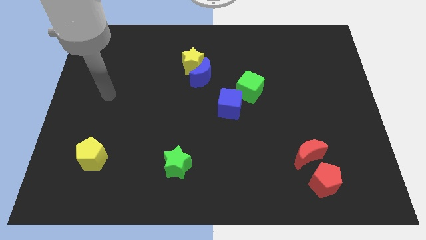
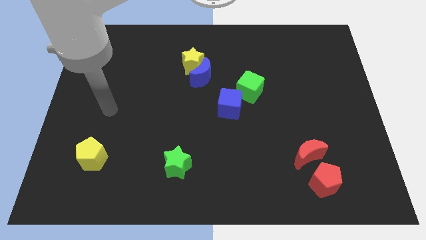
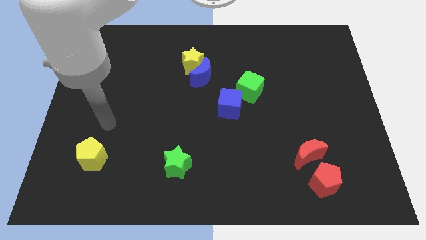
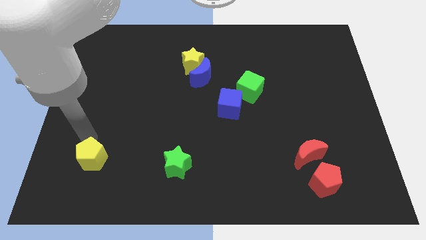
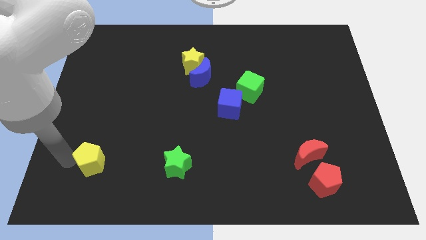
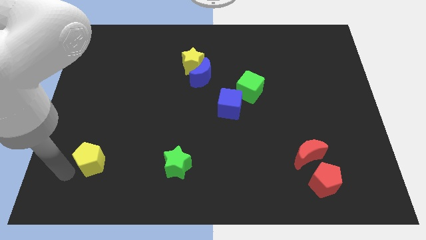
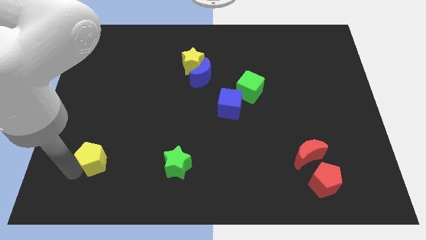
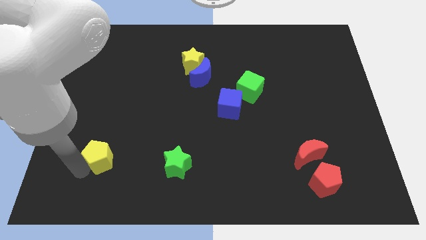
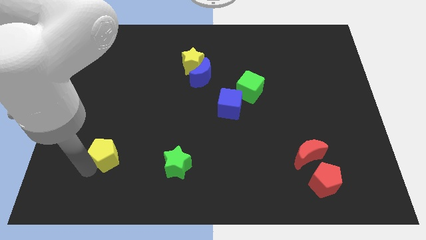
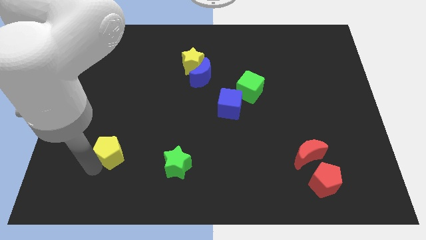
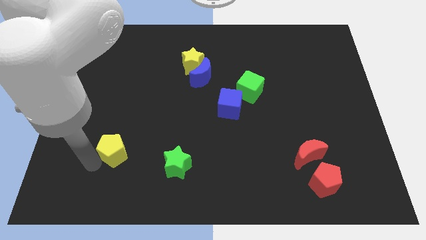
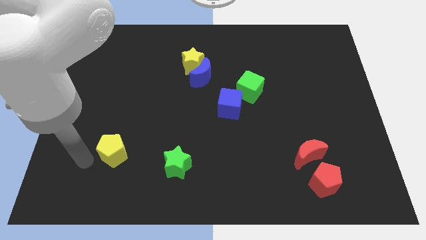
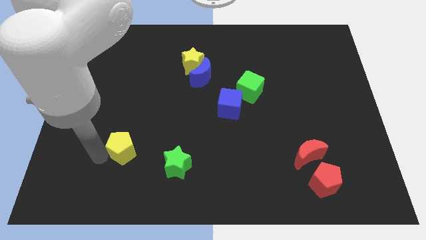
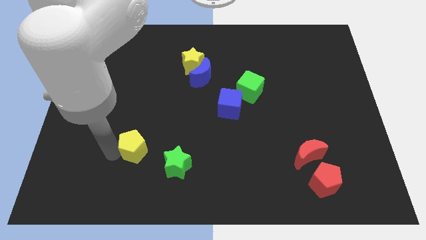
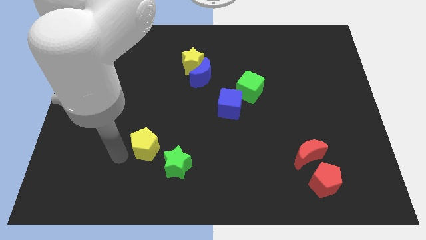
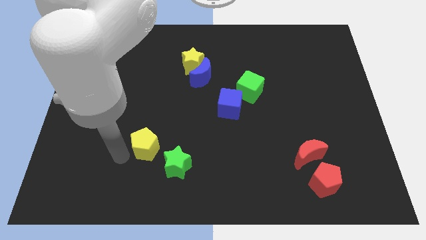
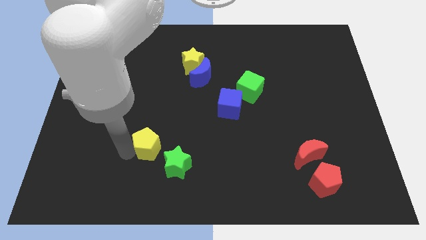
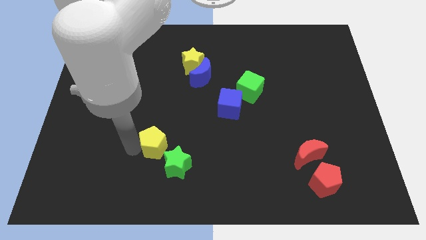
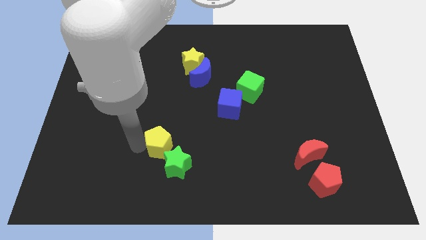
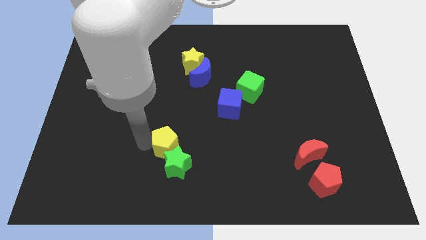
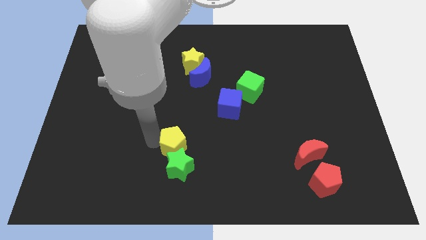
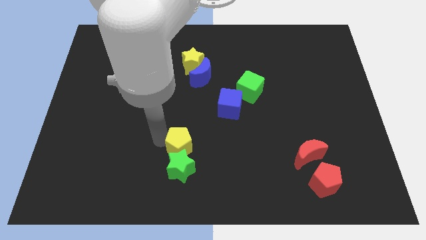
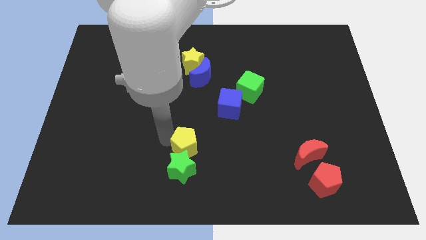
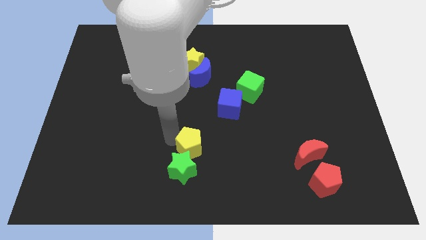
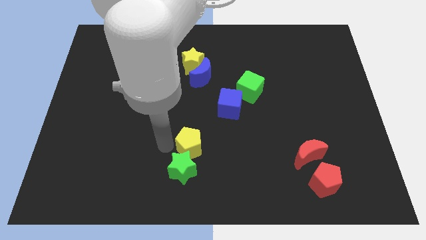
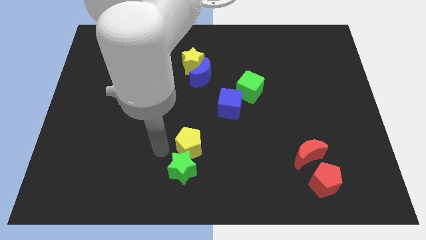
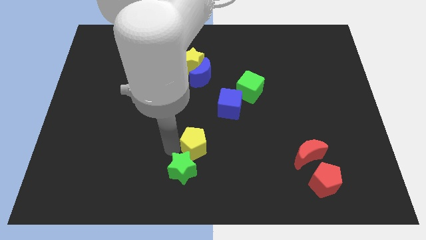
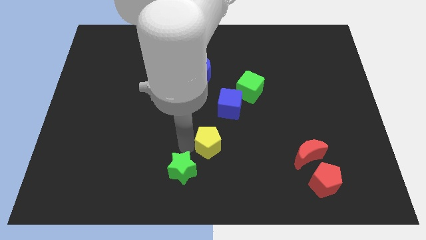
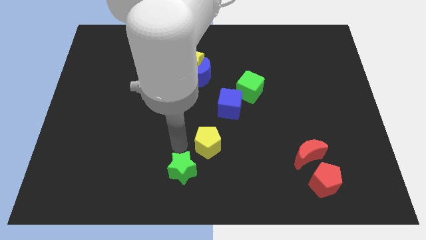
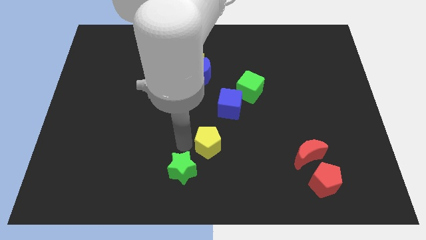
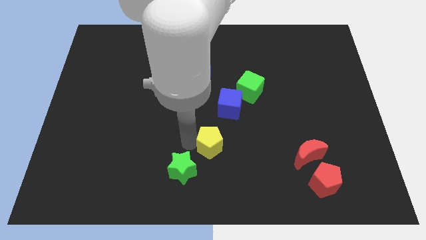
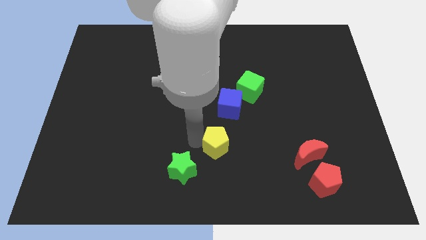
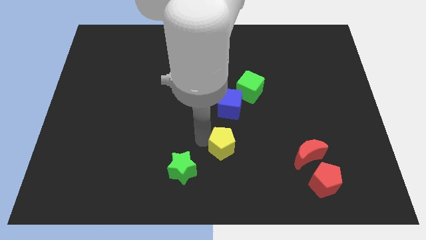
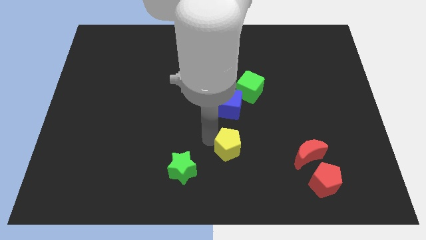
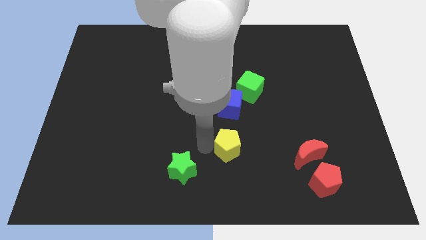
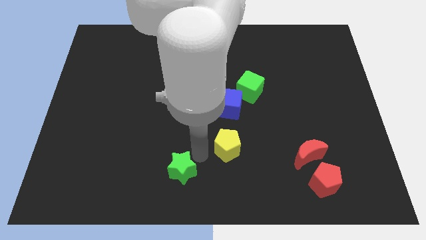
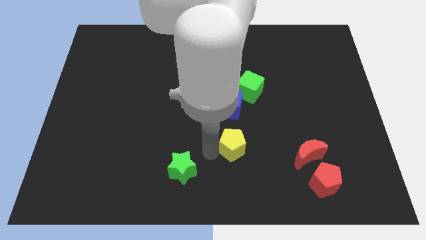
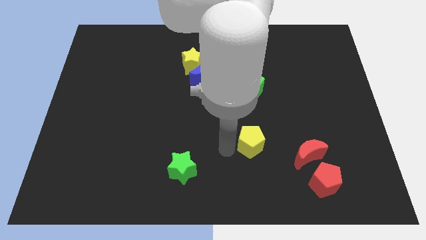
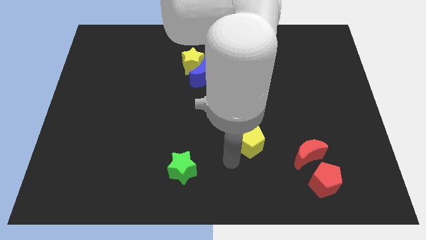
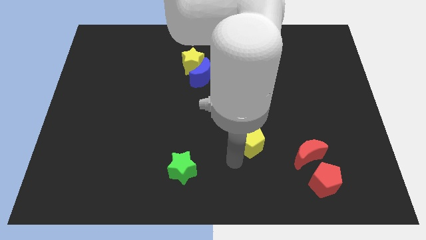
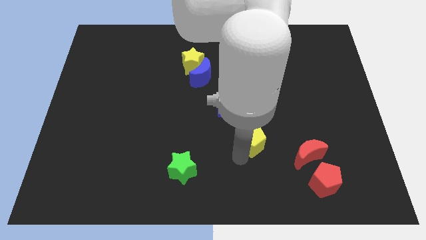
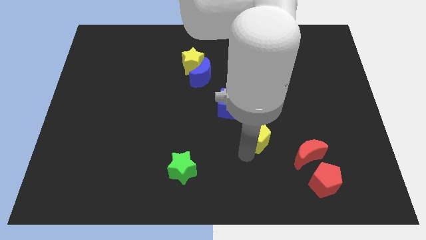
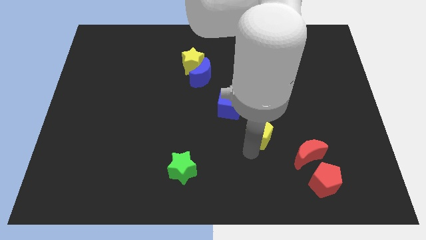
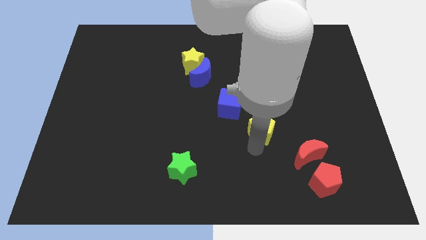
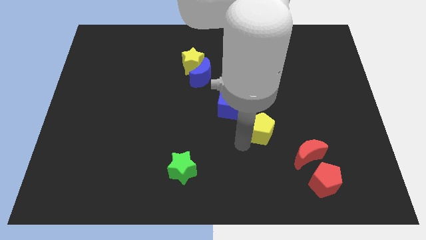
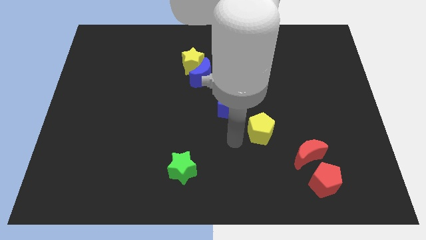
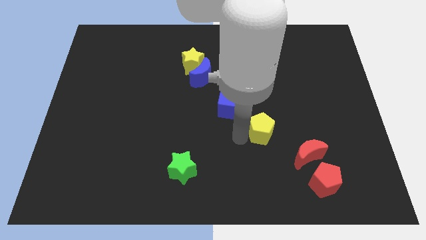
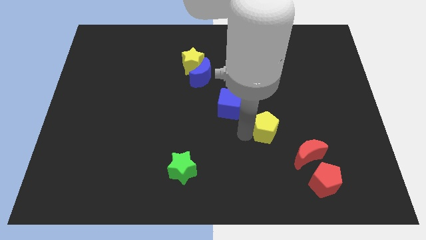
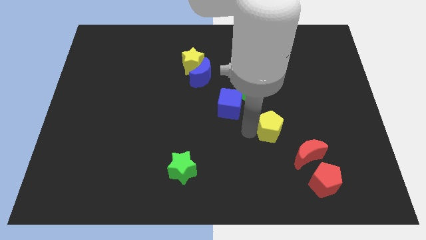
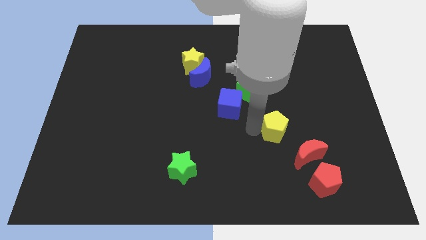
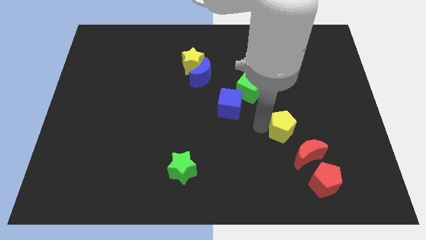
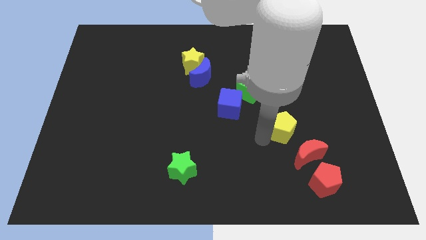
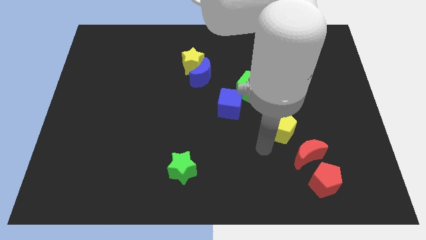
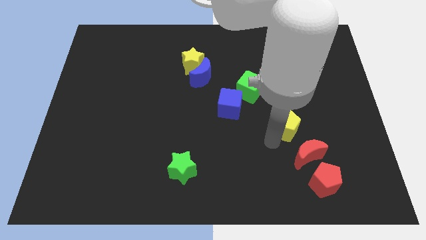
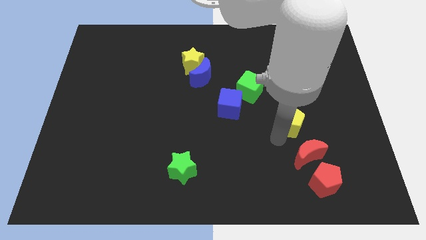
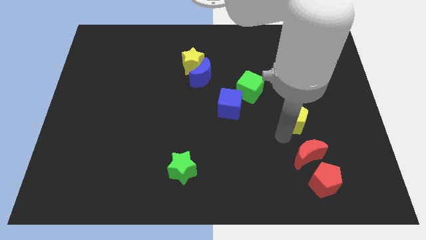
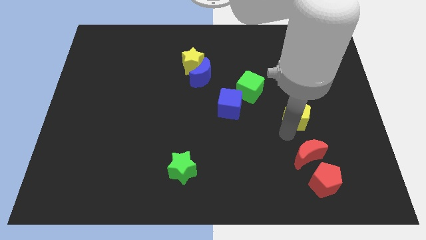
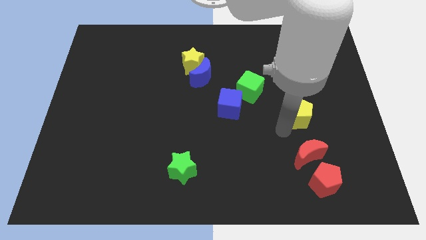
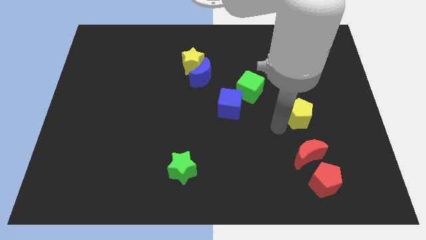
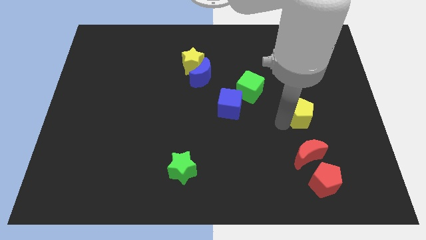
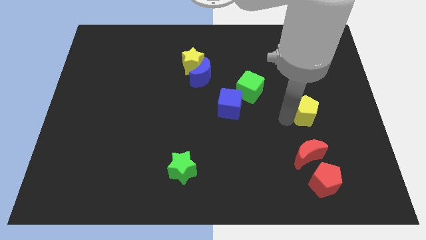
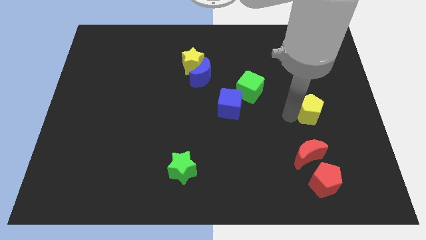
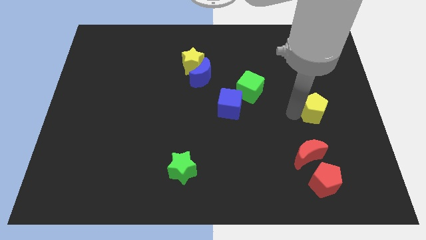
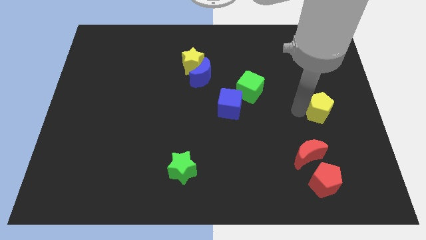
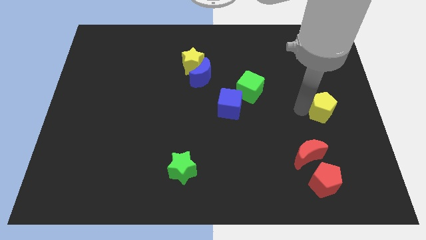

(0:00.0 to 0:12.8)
put the yellow pentagon to the right side
